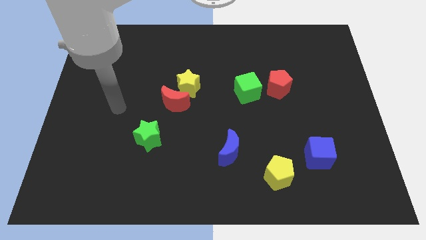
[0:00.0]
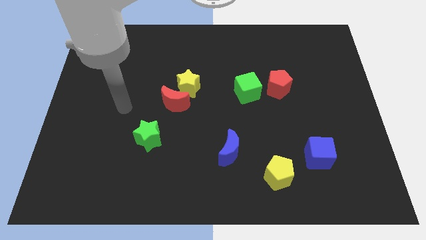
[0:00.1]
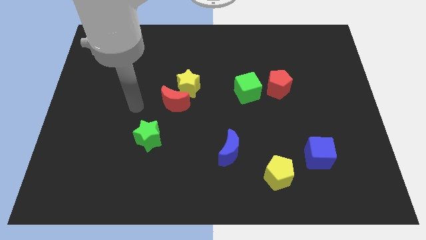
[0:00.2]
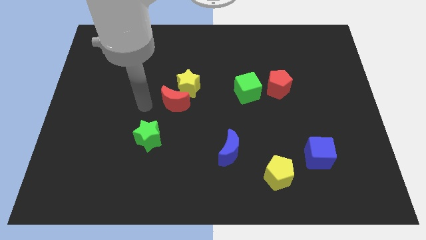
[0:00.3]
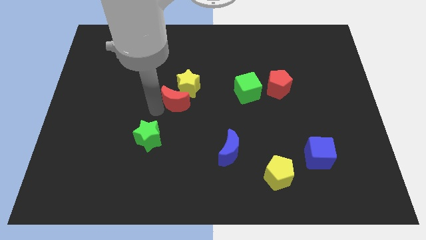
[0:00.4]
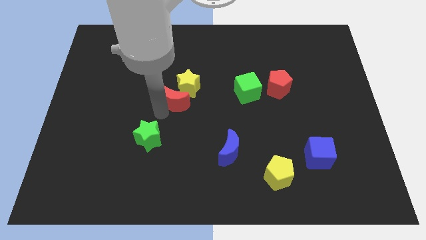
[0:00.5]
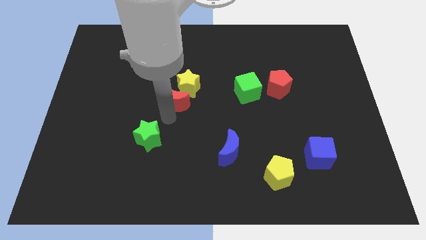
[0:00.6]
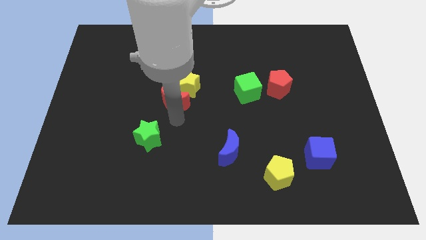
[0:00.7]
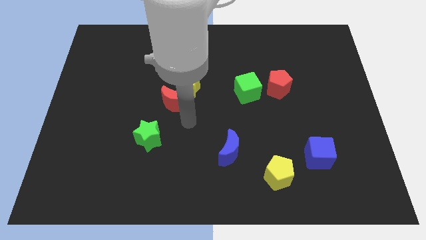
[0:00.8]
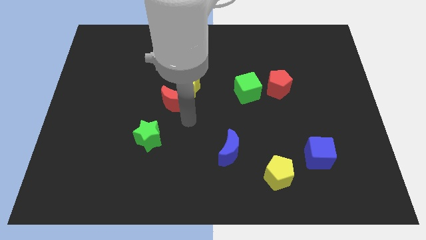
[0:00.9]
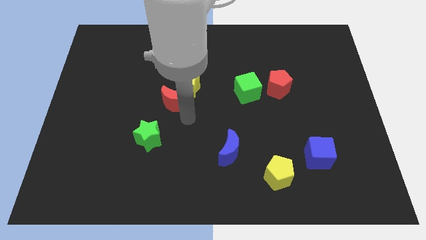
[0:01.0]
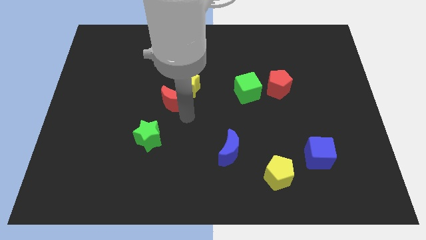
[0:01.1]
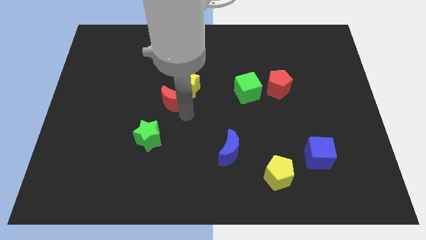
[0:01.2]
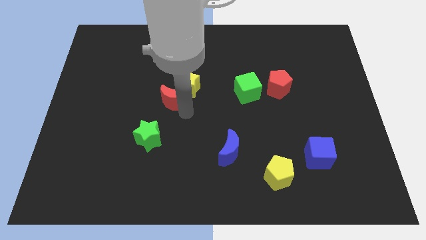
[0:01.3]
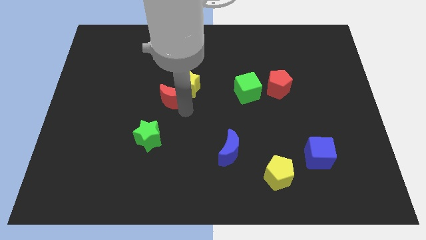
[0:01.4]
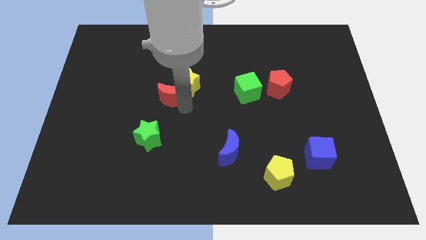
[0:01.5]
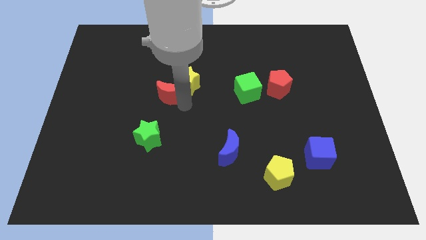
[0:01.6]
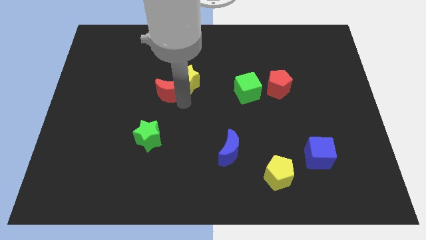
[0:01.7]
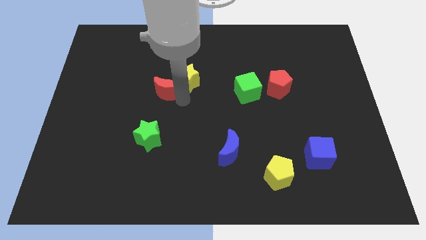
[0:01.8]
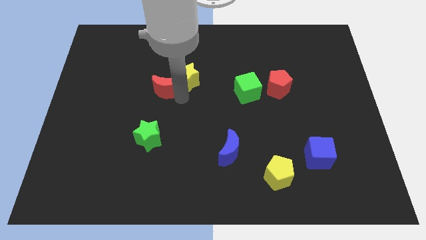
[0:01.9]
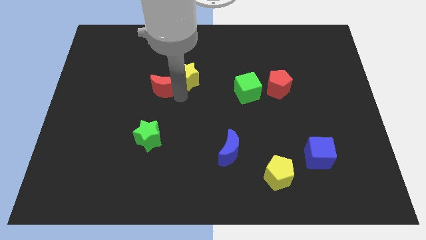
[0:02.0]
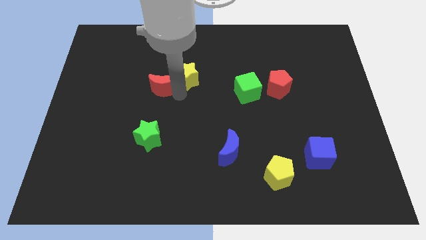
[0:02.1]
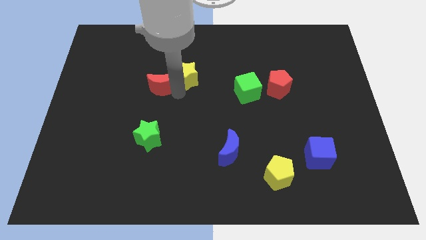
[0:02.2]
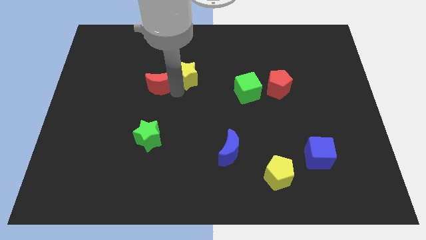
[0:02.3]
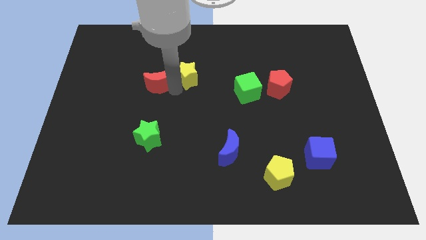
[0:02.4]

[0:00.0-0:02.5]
slightly slide the red moon upwards and left diagonally

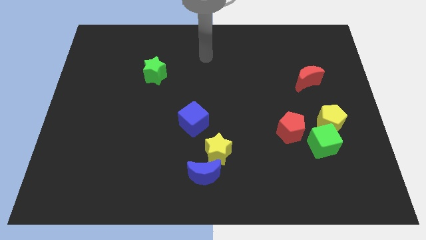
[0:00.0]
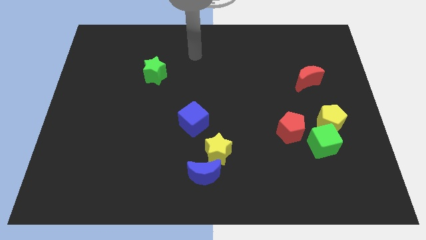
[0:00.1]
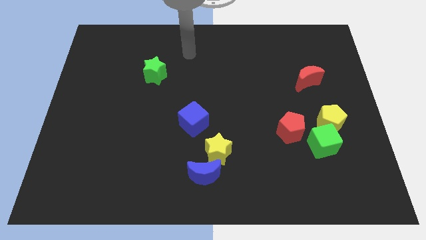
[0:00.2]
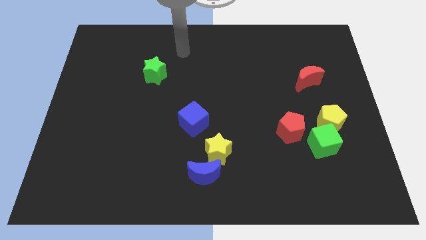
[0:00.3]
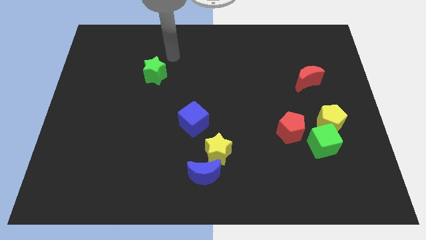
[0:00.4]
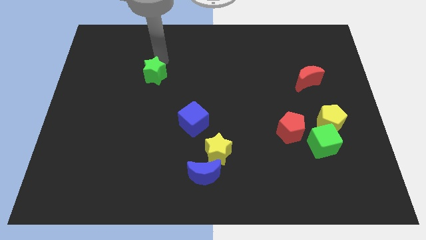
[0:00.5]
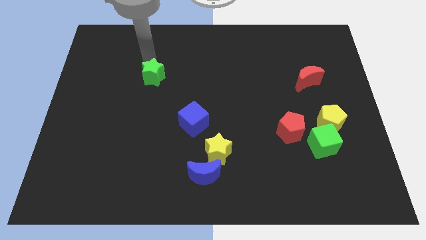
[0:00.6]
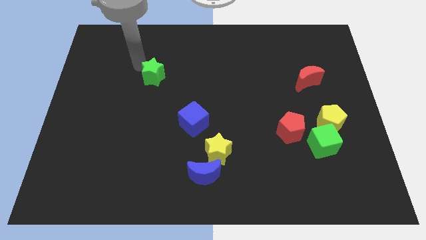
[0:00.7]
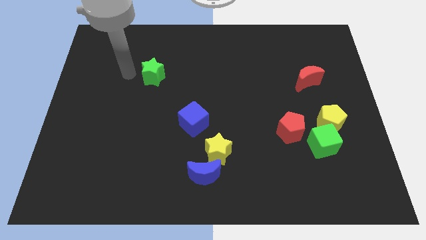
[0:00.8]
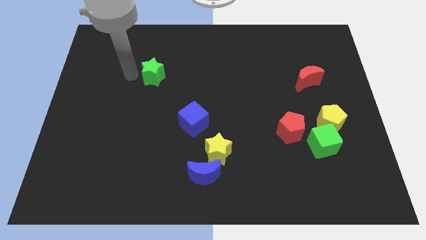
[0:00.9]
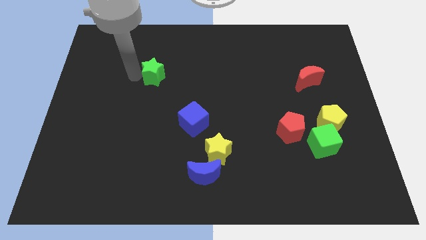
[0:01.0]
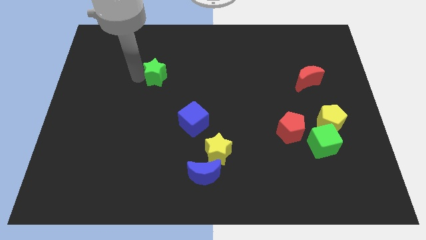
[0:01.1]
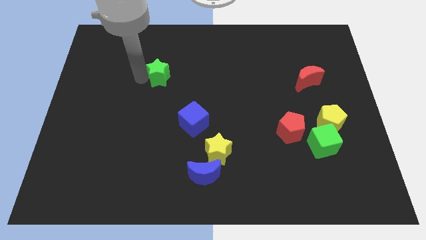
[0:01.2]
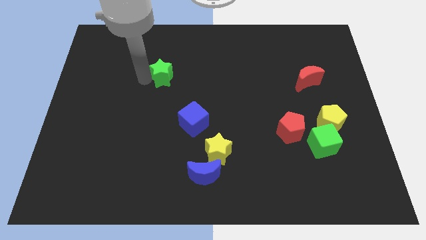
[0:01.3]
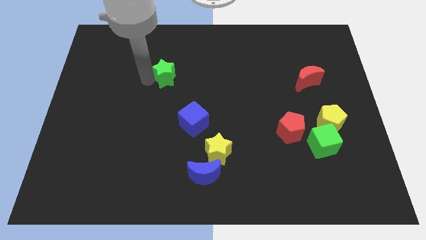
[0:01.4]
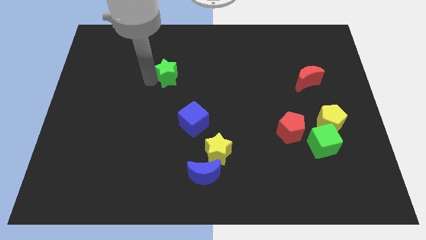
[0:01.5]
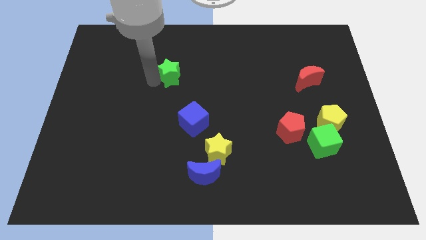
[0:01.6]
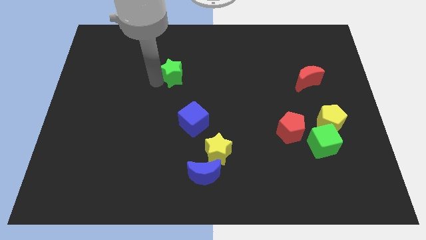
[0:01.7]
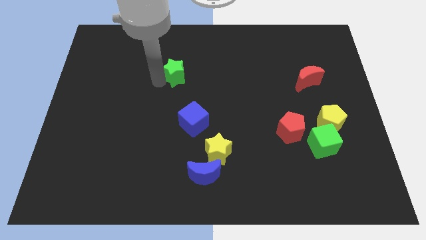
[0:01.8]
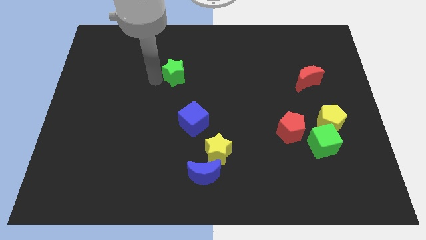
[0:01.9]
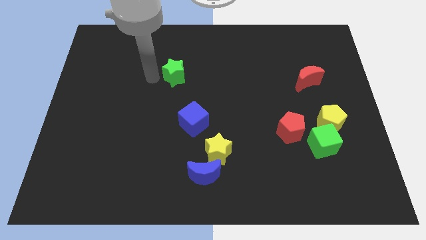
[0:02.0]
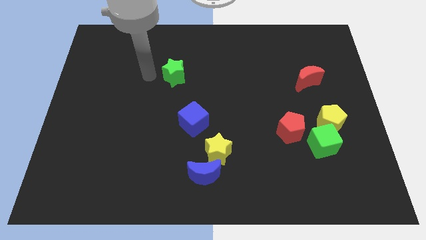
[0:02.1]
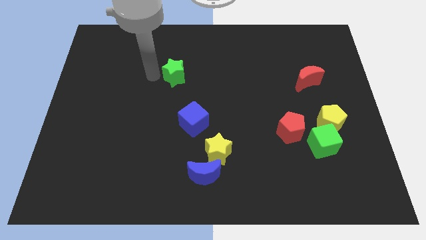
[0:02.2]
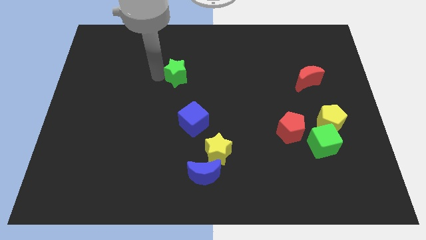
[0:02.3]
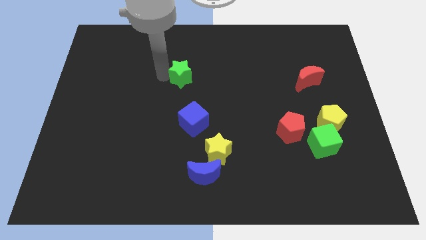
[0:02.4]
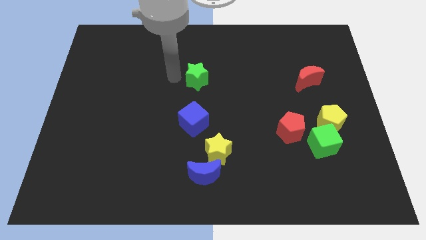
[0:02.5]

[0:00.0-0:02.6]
slide the green star to the right a bit

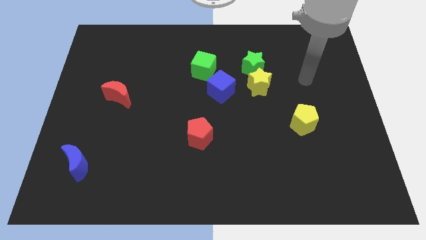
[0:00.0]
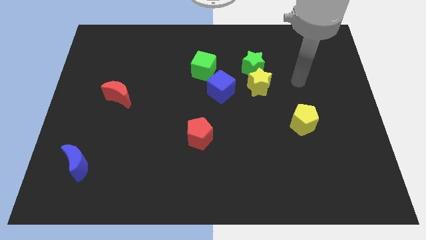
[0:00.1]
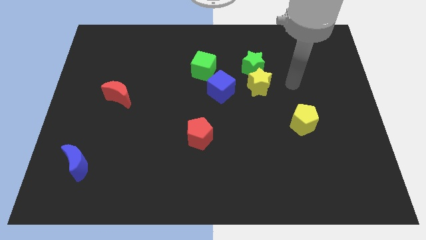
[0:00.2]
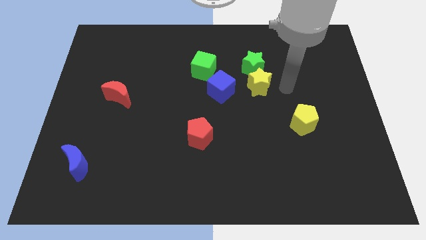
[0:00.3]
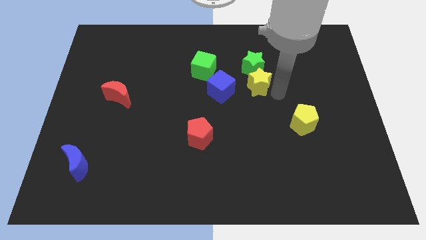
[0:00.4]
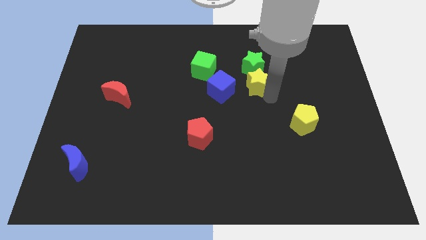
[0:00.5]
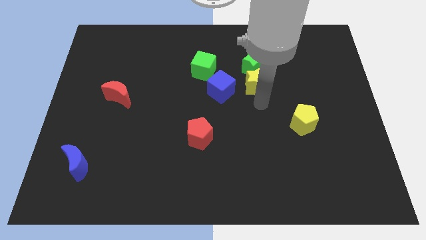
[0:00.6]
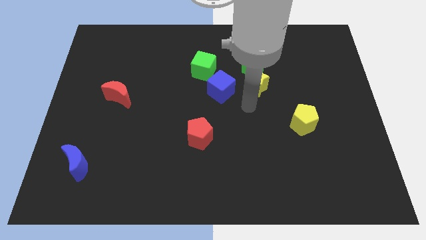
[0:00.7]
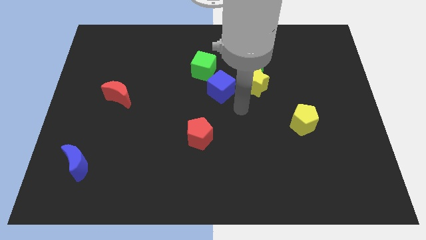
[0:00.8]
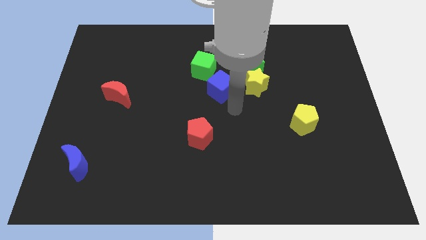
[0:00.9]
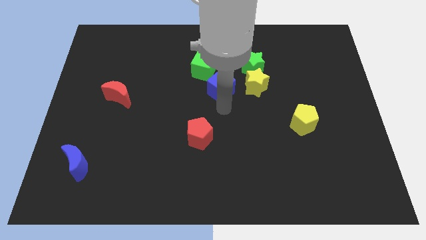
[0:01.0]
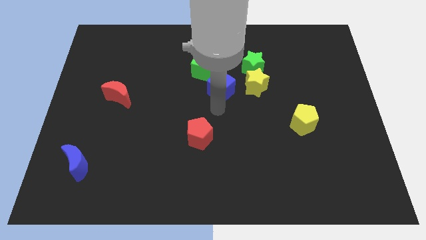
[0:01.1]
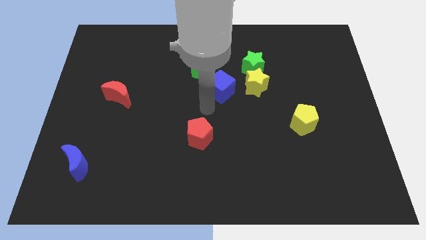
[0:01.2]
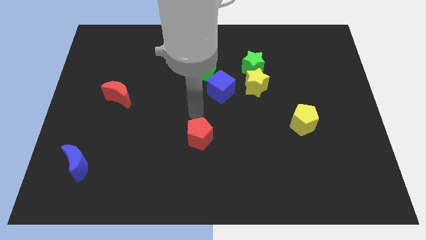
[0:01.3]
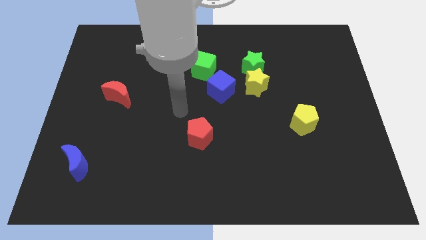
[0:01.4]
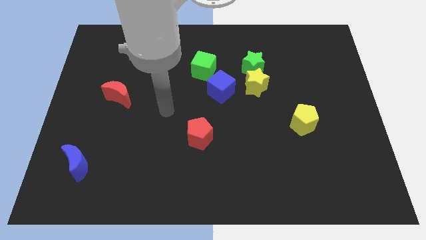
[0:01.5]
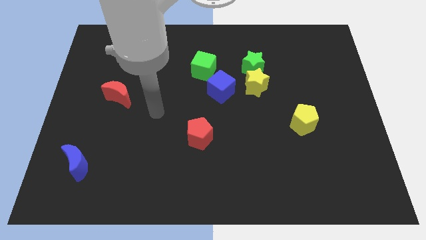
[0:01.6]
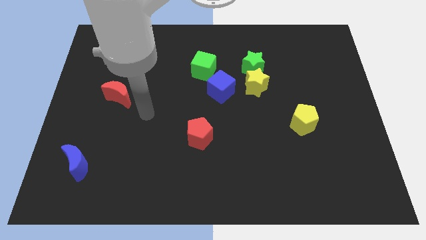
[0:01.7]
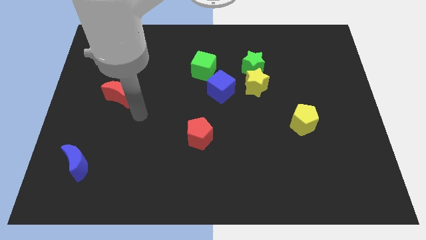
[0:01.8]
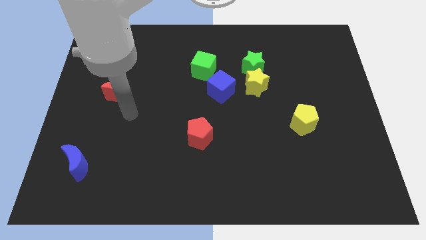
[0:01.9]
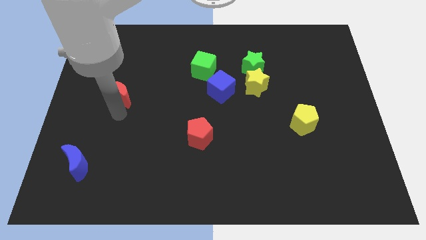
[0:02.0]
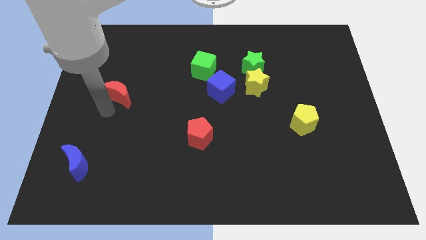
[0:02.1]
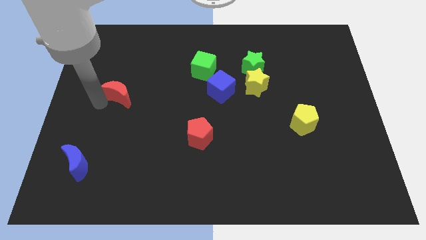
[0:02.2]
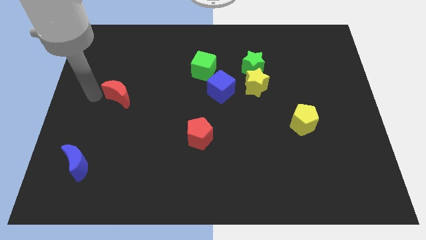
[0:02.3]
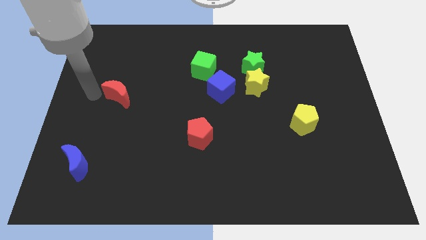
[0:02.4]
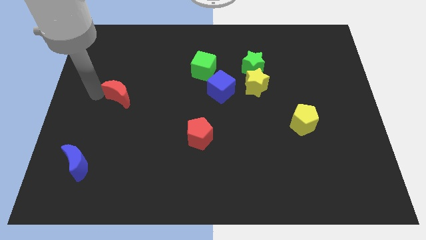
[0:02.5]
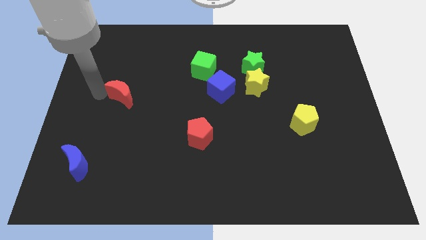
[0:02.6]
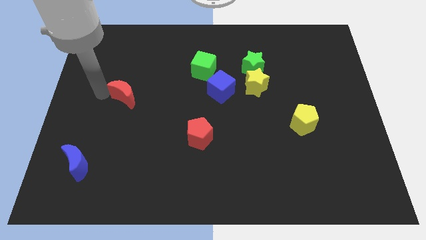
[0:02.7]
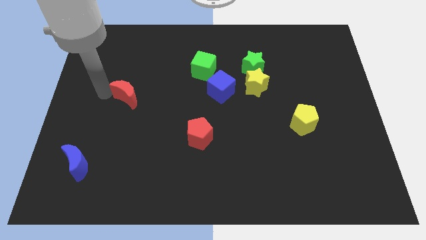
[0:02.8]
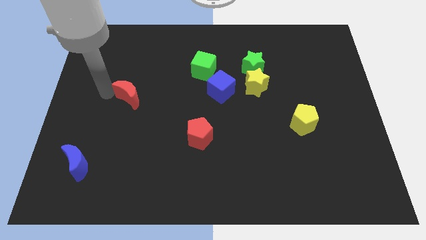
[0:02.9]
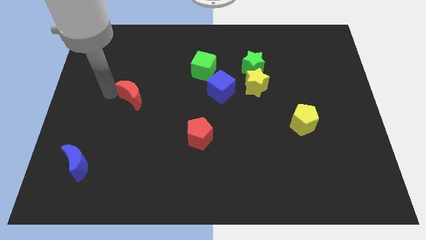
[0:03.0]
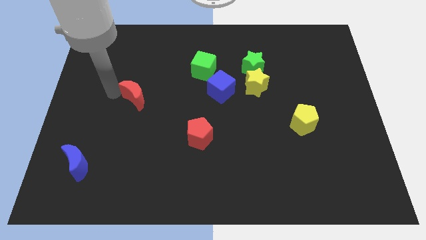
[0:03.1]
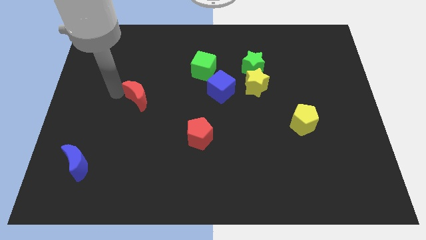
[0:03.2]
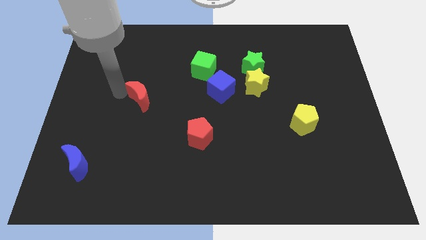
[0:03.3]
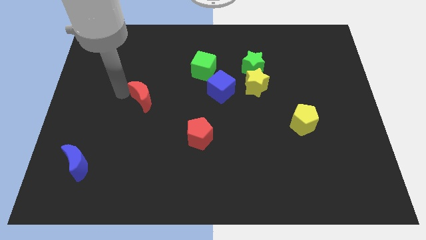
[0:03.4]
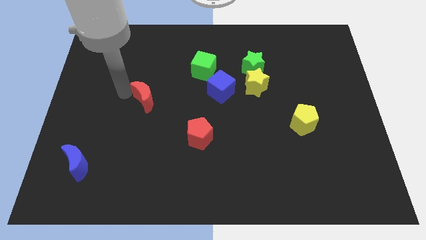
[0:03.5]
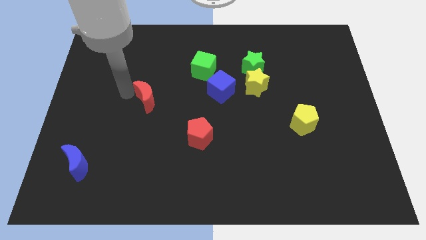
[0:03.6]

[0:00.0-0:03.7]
push the red moon right a bit
